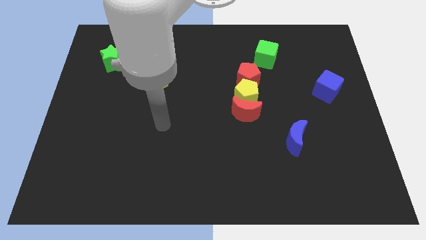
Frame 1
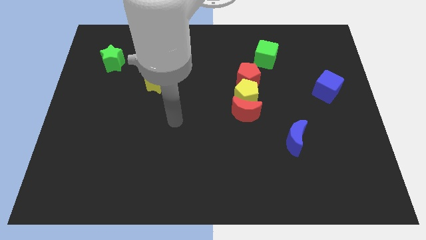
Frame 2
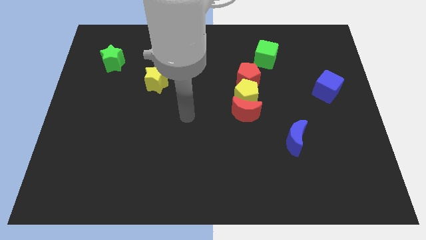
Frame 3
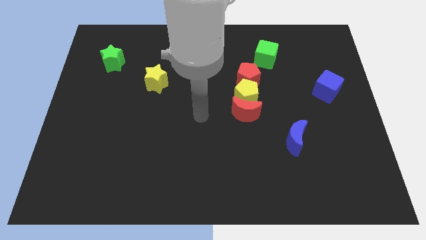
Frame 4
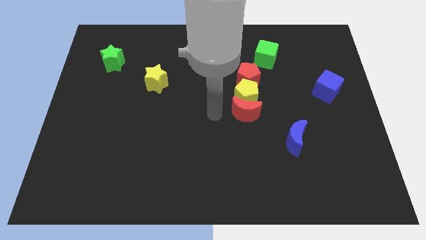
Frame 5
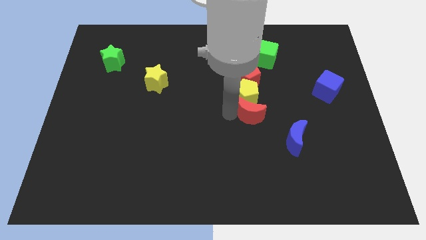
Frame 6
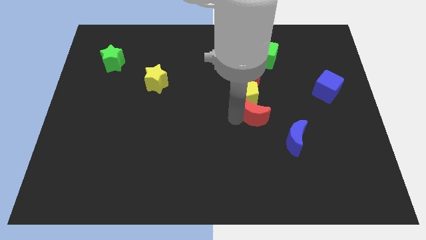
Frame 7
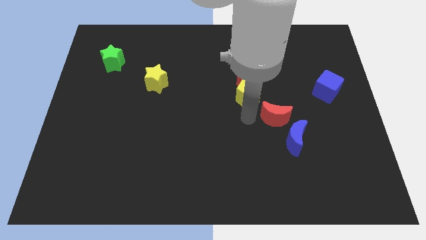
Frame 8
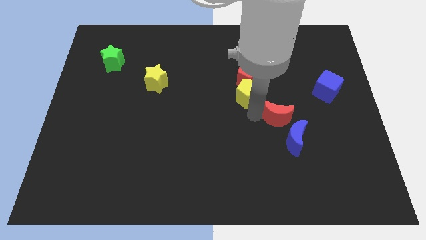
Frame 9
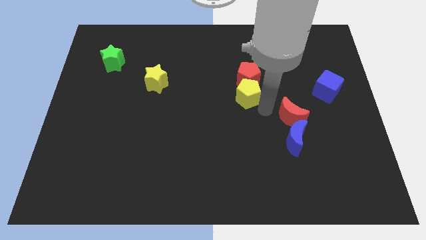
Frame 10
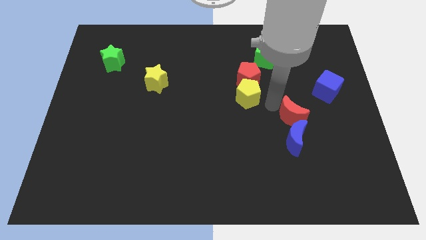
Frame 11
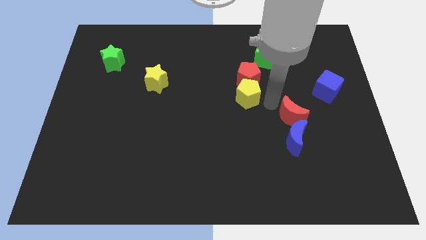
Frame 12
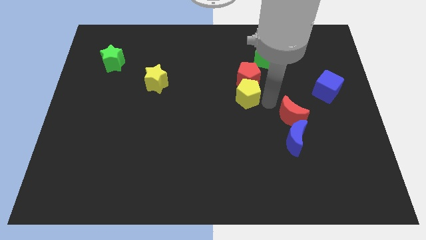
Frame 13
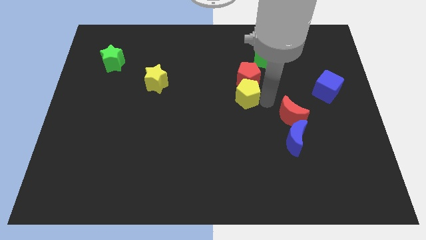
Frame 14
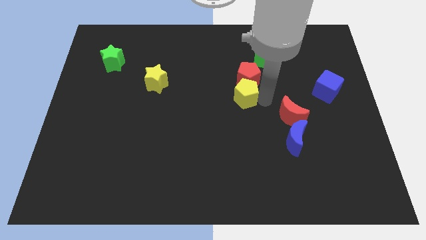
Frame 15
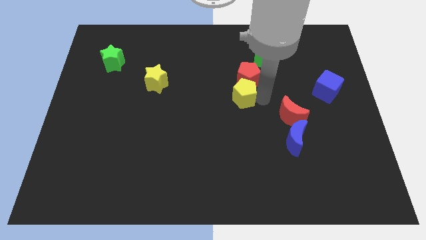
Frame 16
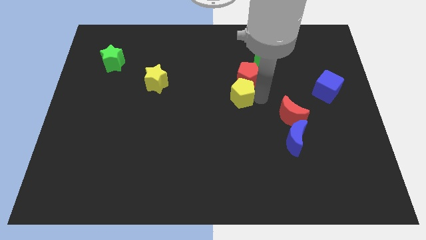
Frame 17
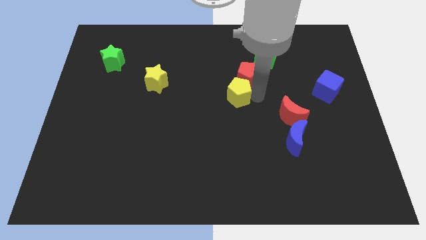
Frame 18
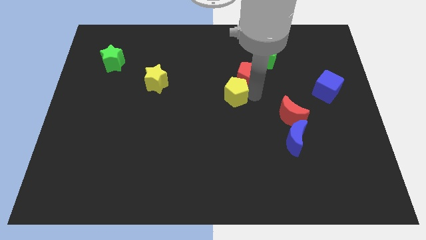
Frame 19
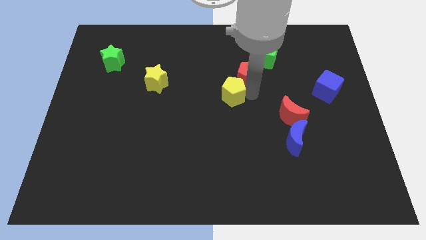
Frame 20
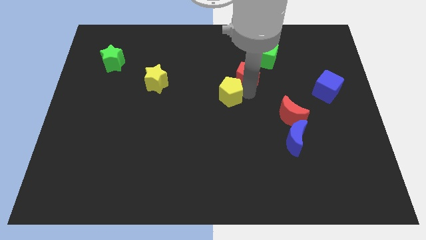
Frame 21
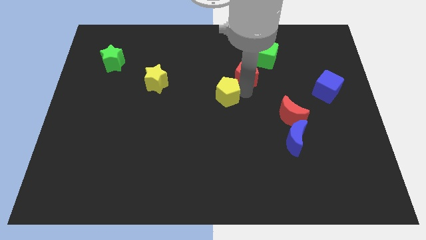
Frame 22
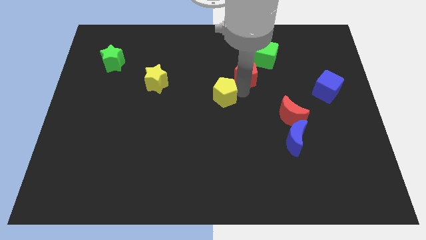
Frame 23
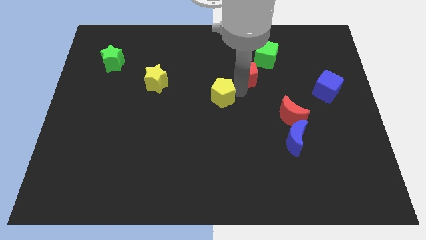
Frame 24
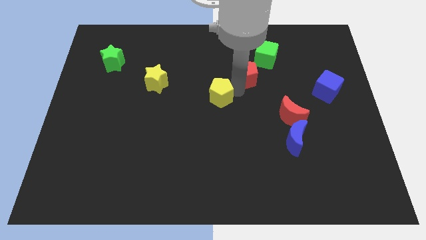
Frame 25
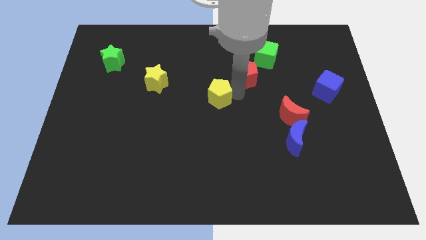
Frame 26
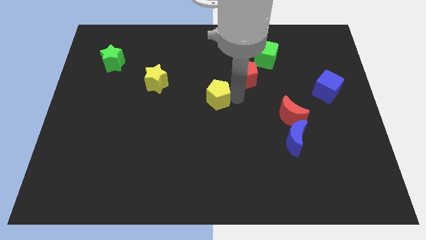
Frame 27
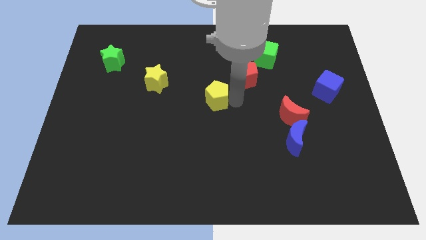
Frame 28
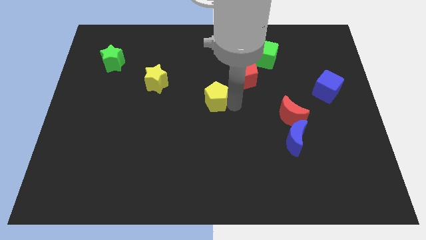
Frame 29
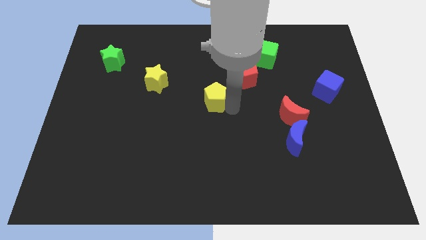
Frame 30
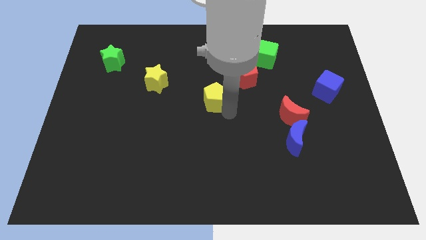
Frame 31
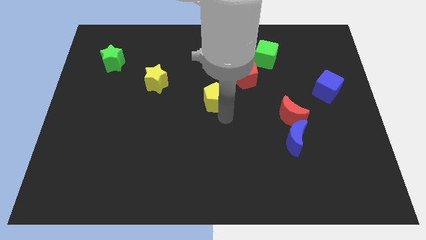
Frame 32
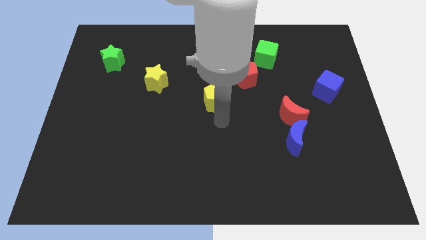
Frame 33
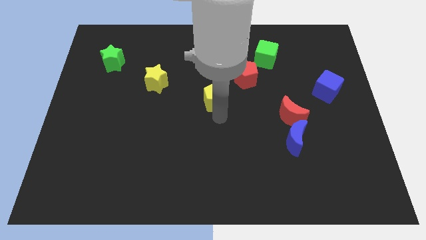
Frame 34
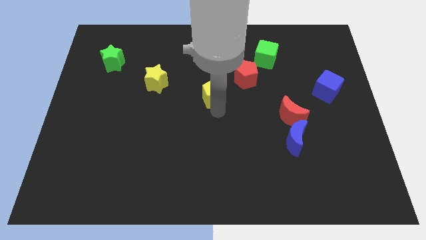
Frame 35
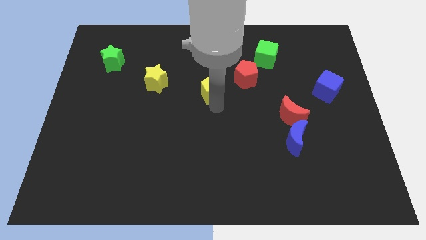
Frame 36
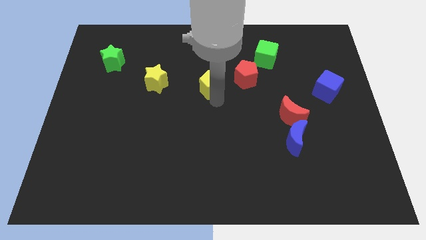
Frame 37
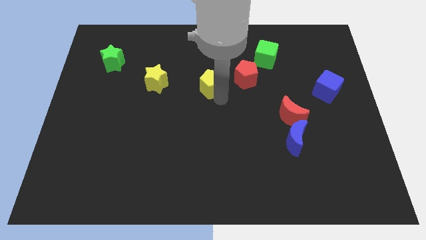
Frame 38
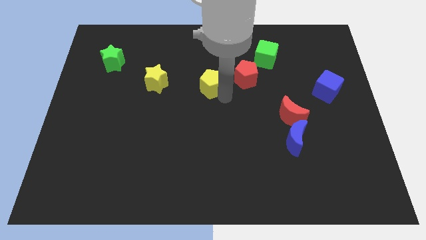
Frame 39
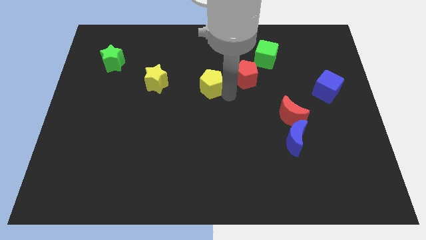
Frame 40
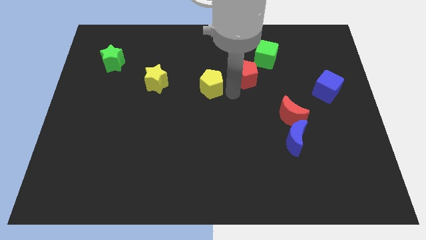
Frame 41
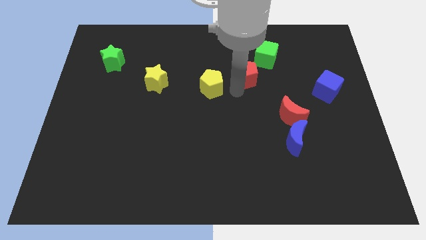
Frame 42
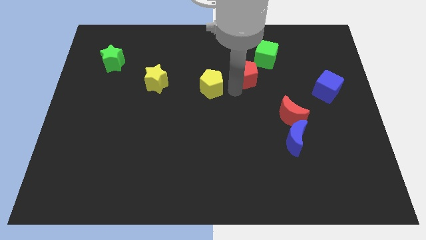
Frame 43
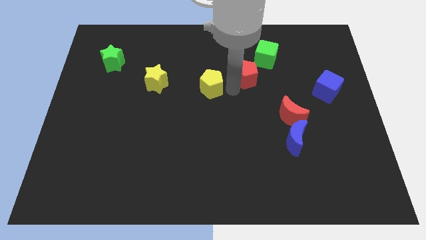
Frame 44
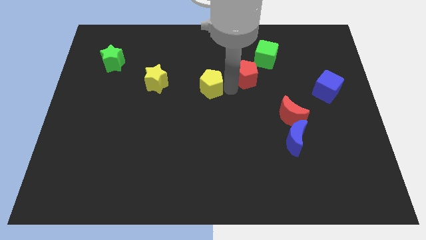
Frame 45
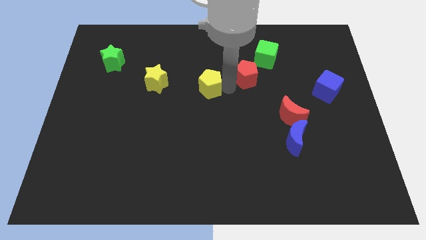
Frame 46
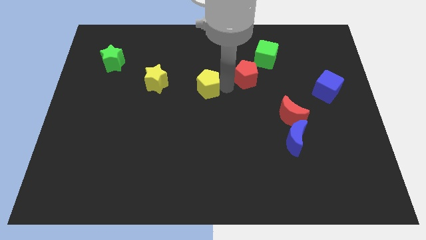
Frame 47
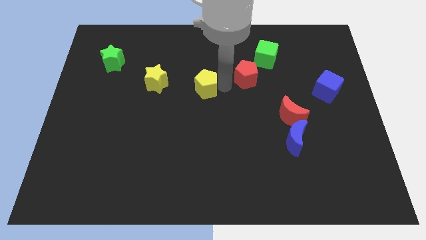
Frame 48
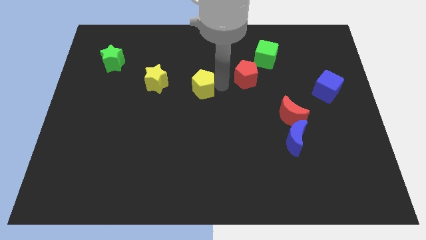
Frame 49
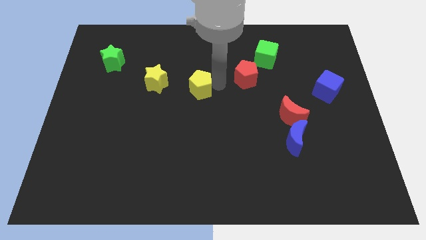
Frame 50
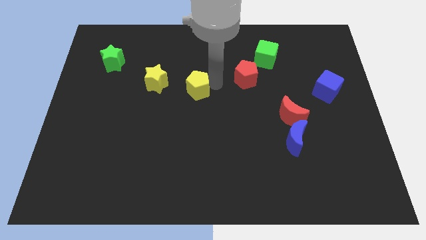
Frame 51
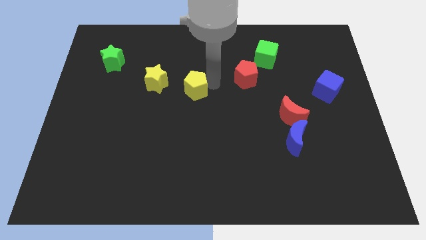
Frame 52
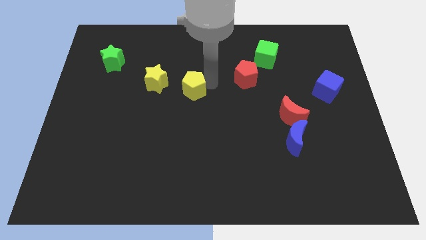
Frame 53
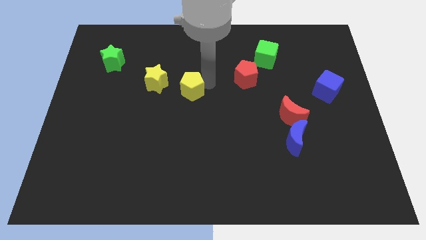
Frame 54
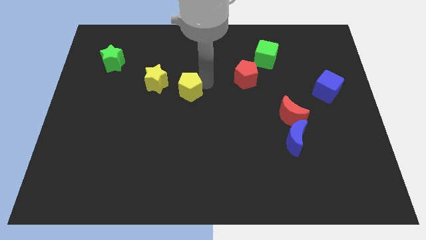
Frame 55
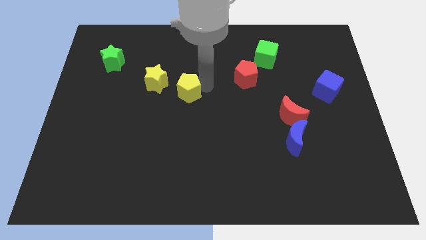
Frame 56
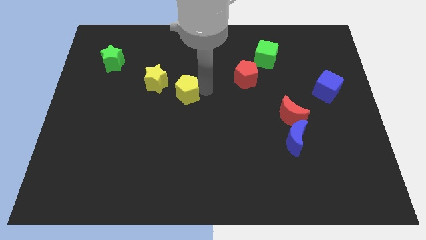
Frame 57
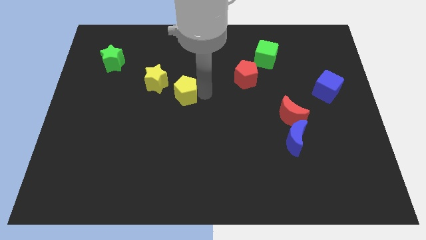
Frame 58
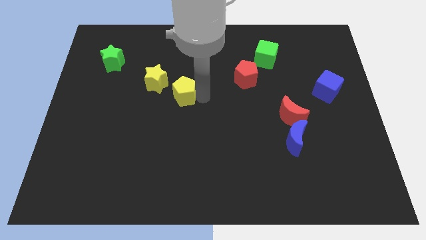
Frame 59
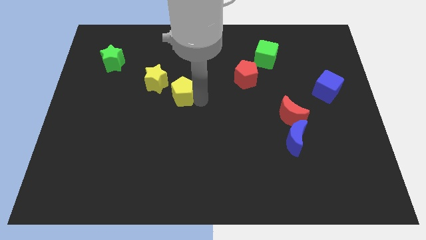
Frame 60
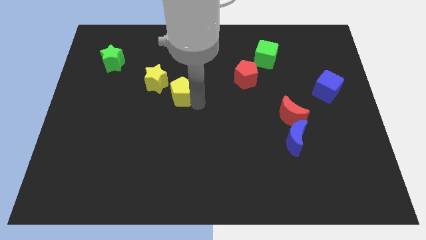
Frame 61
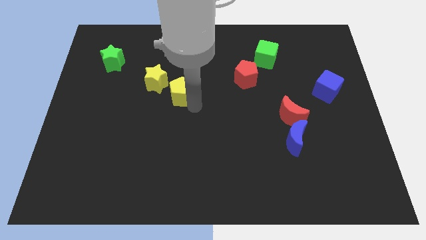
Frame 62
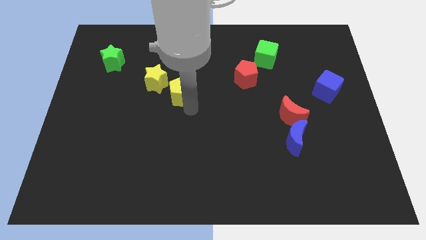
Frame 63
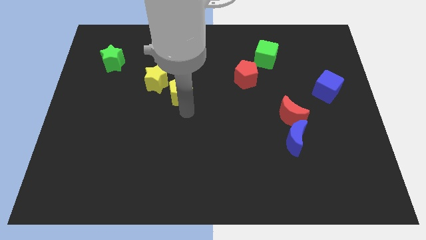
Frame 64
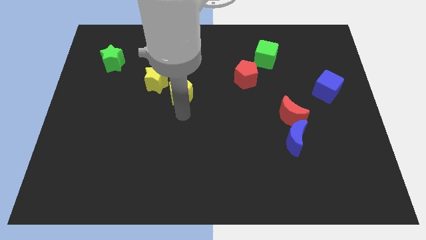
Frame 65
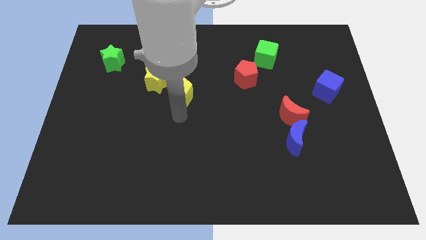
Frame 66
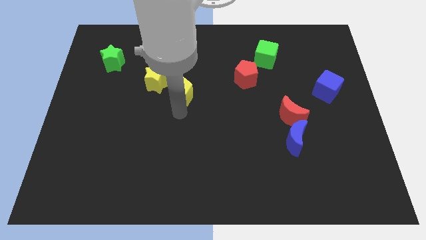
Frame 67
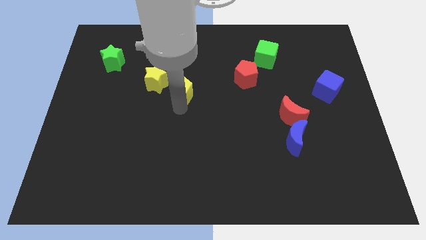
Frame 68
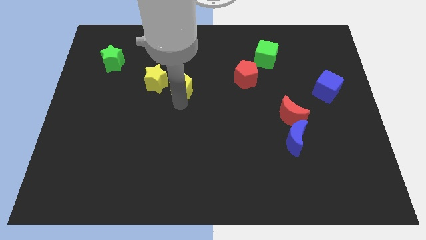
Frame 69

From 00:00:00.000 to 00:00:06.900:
put the yellow pentagon towards the yellow star

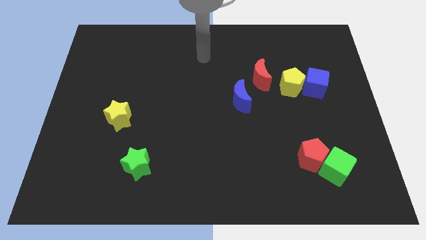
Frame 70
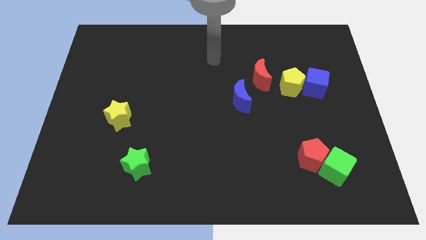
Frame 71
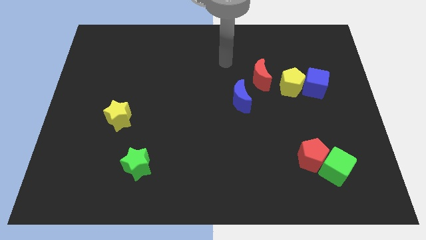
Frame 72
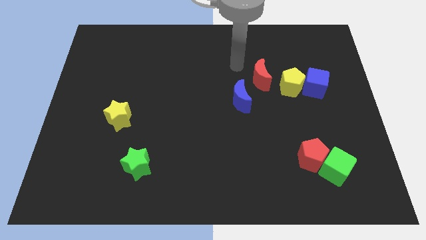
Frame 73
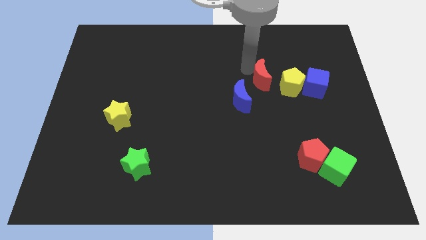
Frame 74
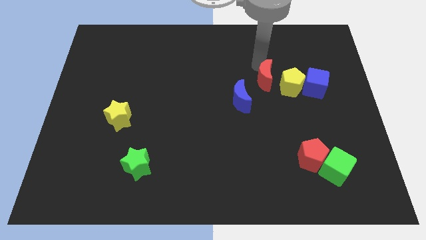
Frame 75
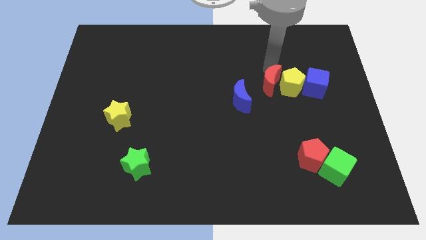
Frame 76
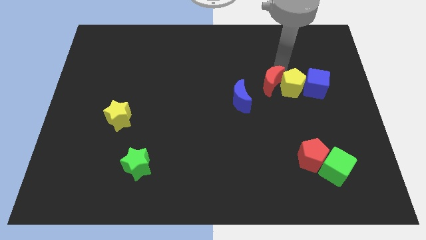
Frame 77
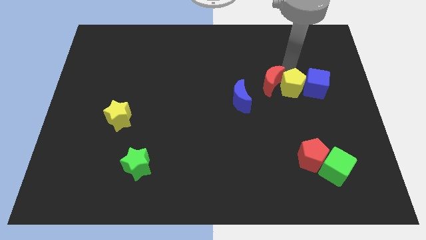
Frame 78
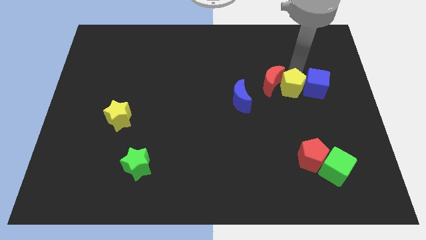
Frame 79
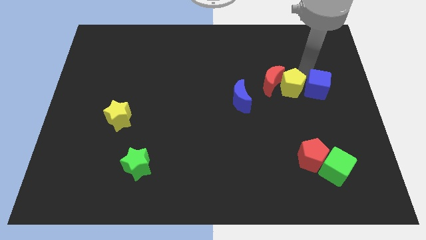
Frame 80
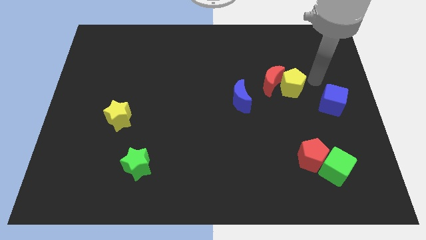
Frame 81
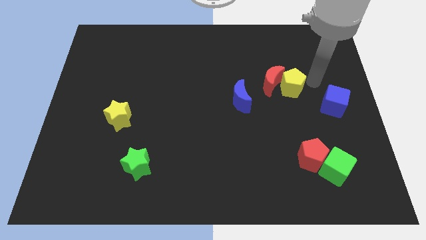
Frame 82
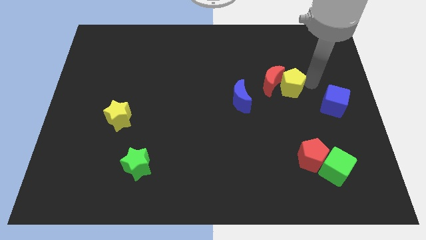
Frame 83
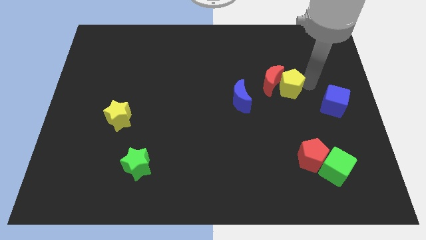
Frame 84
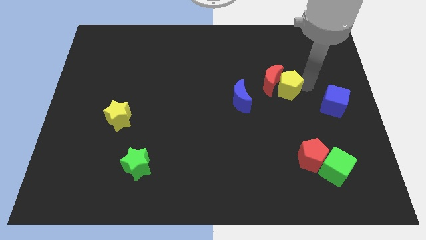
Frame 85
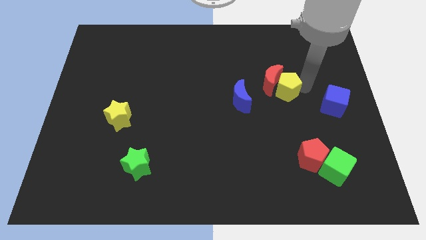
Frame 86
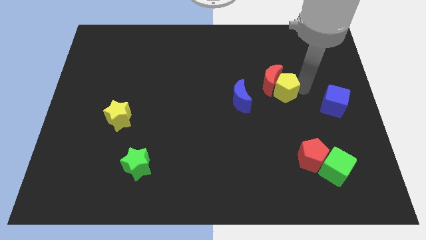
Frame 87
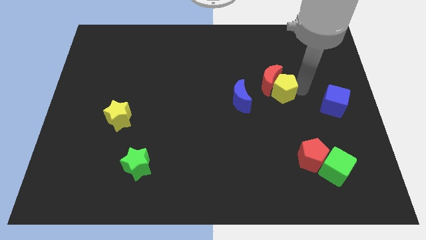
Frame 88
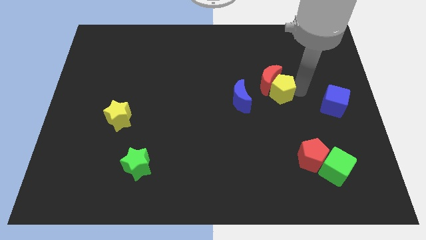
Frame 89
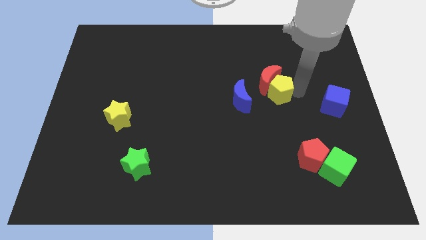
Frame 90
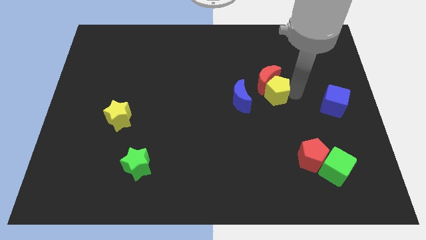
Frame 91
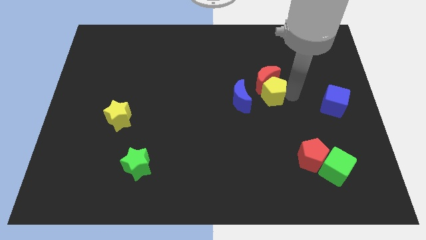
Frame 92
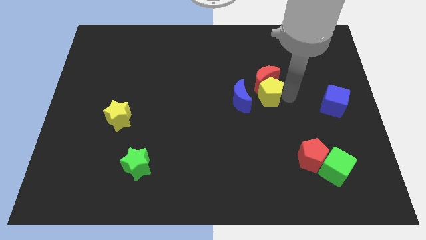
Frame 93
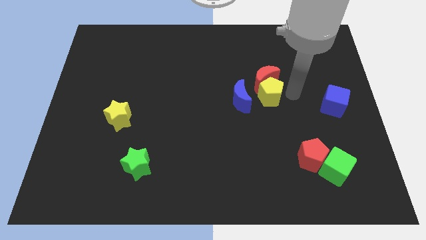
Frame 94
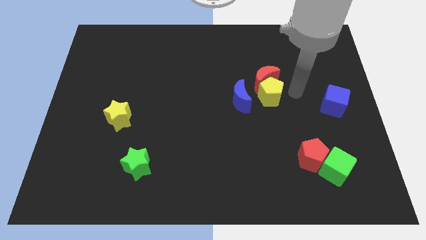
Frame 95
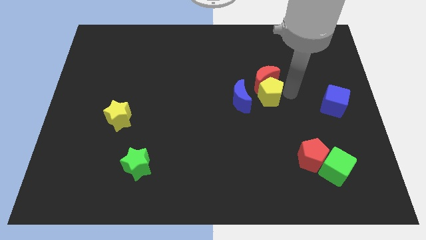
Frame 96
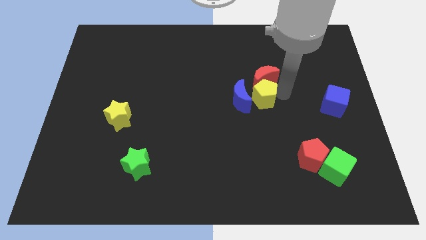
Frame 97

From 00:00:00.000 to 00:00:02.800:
slide the yellow pentagon to the blue moon
